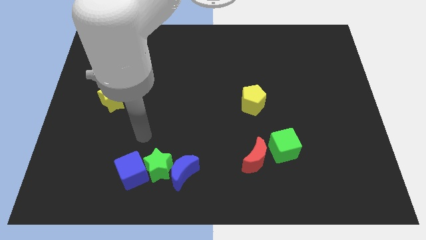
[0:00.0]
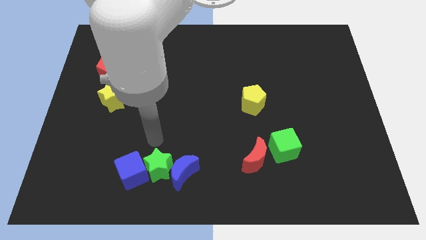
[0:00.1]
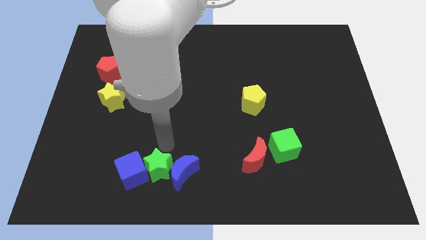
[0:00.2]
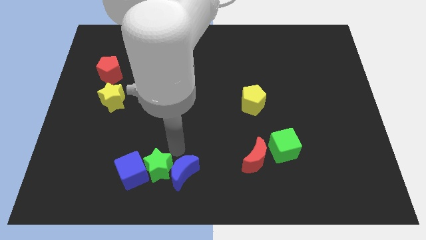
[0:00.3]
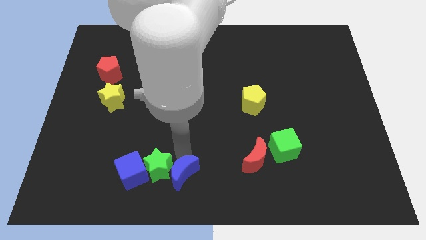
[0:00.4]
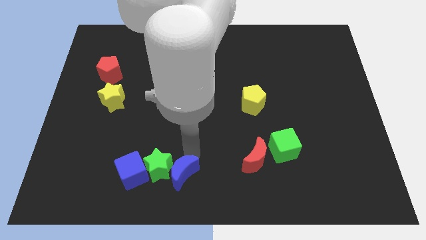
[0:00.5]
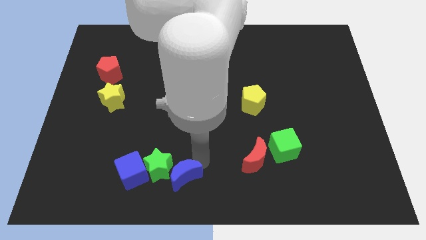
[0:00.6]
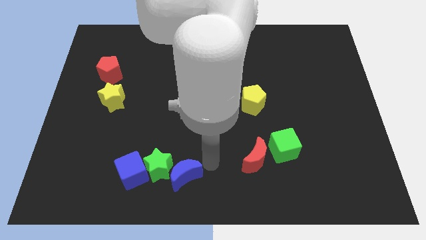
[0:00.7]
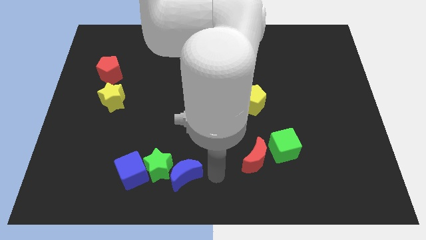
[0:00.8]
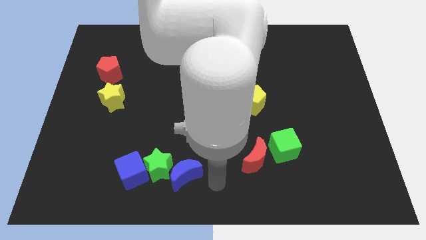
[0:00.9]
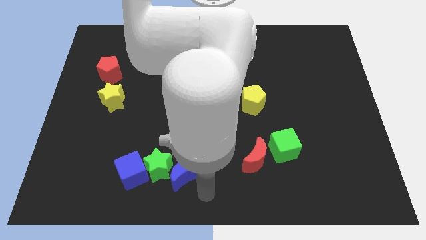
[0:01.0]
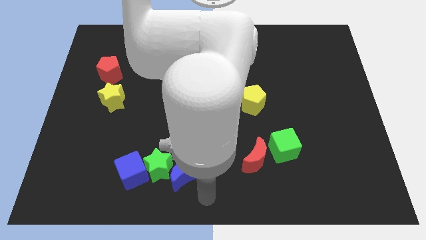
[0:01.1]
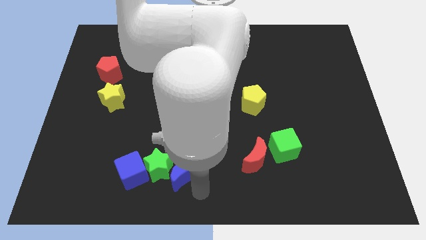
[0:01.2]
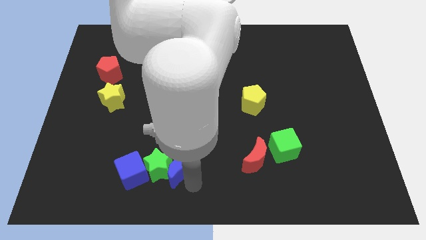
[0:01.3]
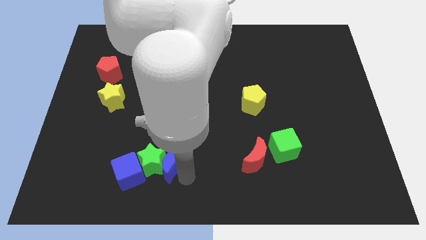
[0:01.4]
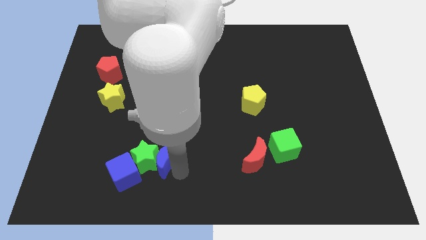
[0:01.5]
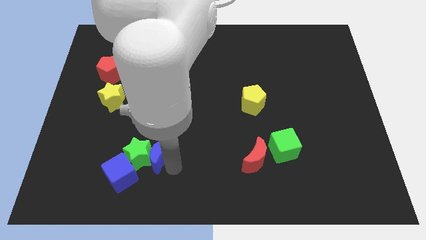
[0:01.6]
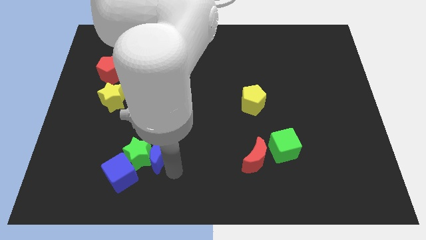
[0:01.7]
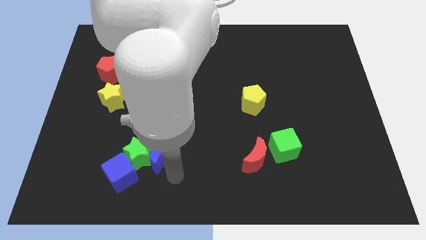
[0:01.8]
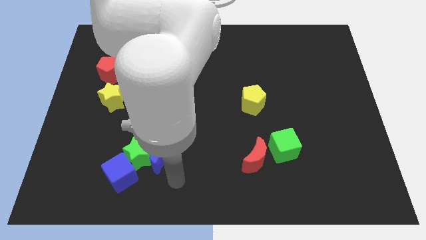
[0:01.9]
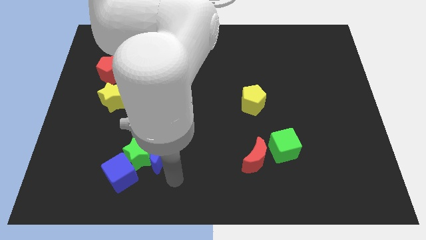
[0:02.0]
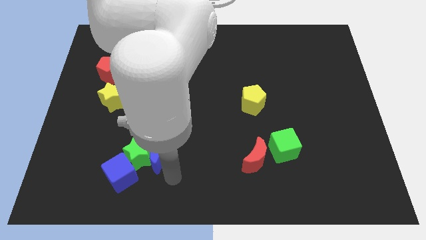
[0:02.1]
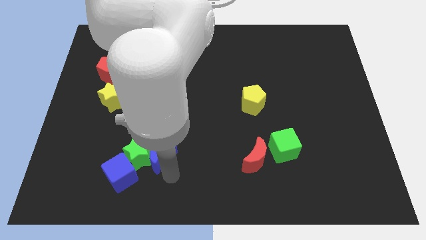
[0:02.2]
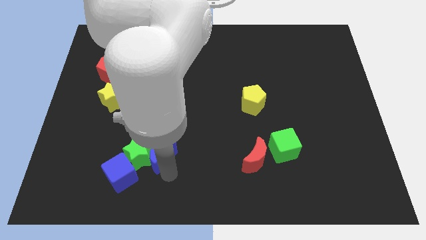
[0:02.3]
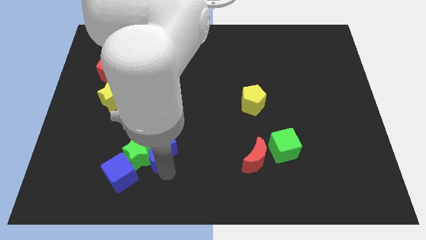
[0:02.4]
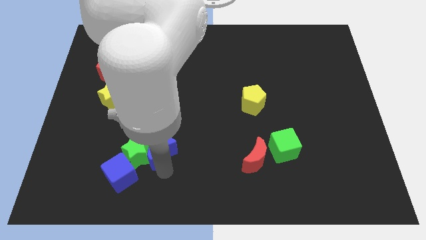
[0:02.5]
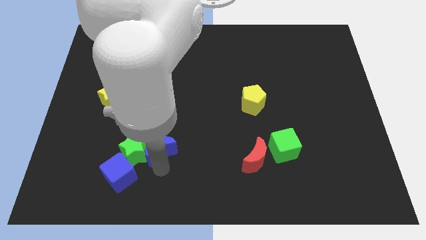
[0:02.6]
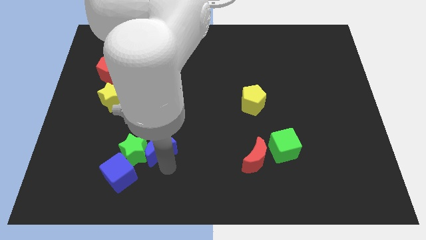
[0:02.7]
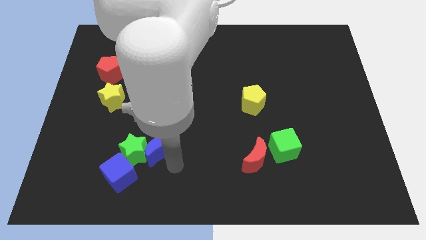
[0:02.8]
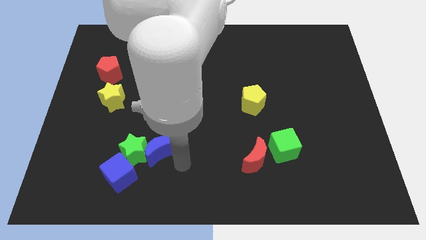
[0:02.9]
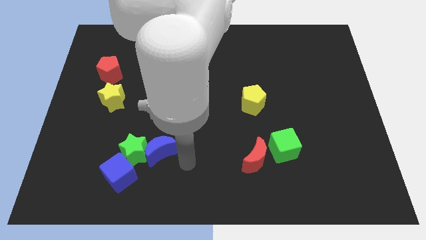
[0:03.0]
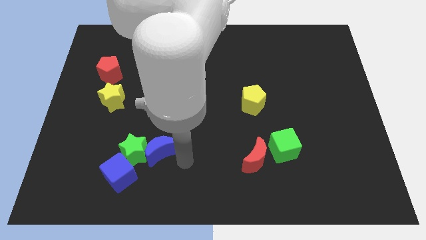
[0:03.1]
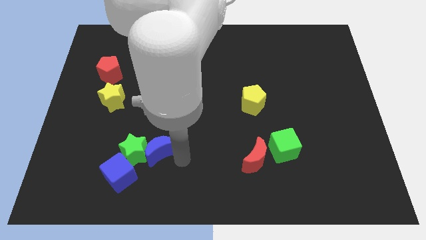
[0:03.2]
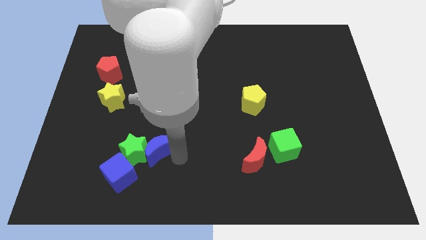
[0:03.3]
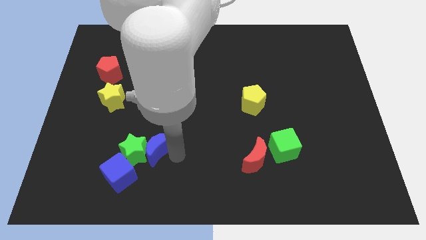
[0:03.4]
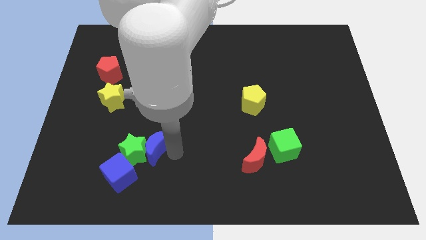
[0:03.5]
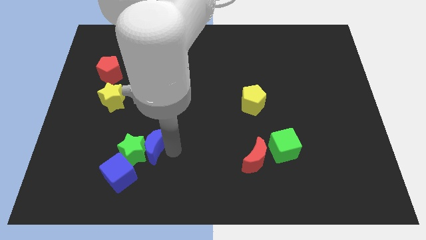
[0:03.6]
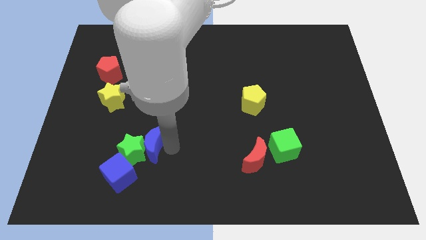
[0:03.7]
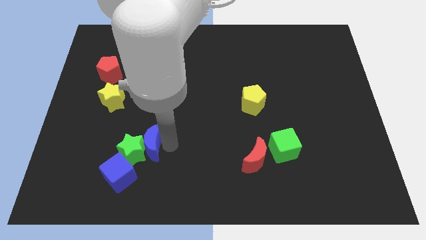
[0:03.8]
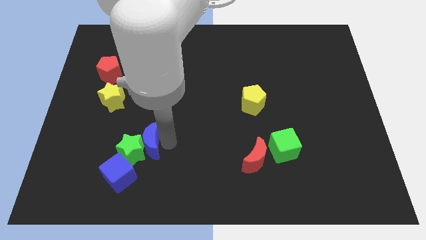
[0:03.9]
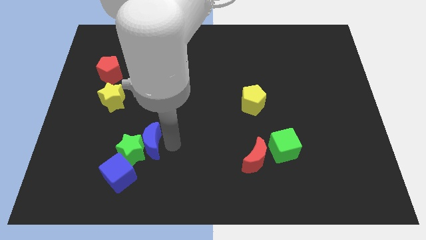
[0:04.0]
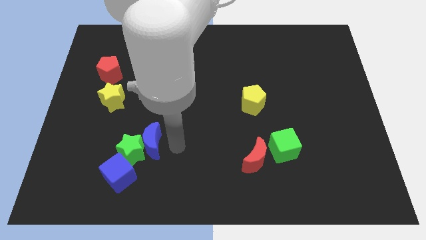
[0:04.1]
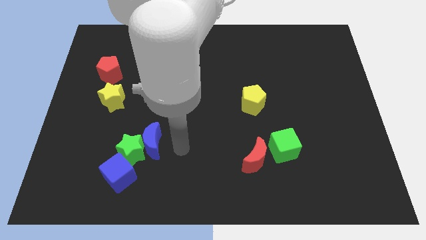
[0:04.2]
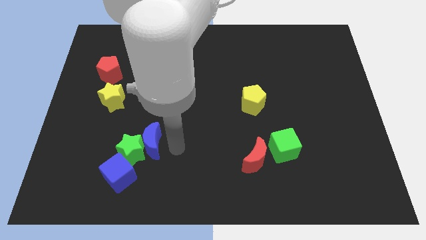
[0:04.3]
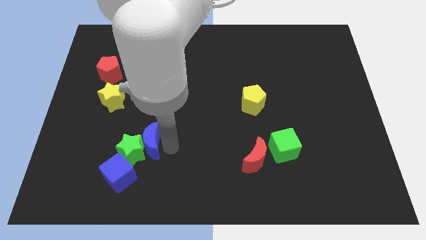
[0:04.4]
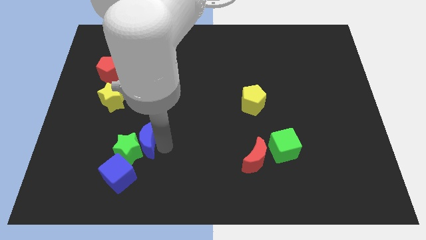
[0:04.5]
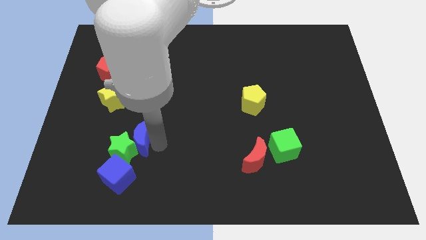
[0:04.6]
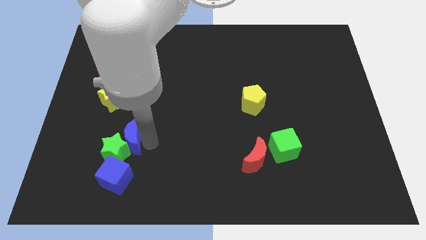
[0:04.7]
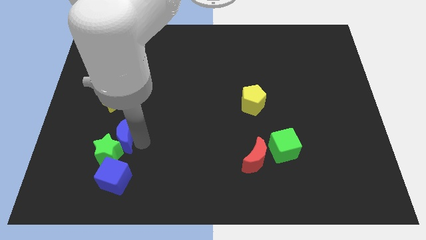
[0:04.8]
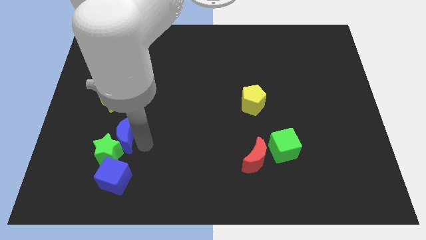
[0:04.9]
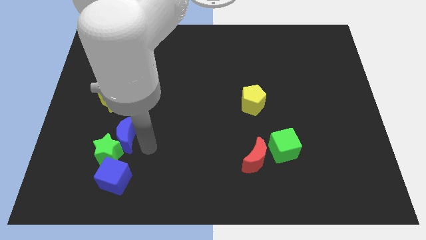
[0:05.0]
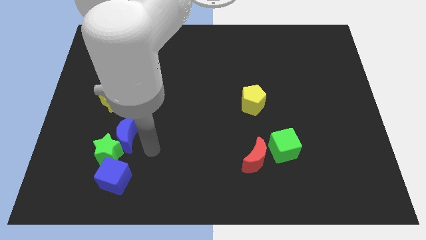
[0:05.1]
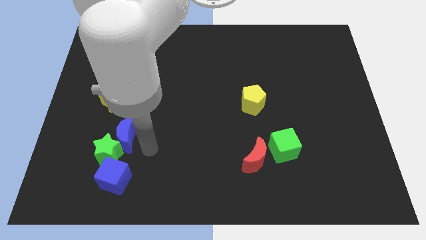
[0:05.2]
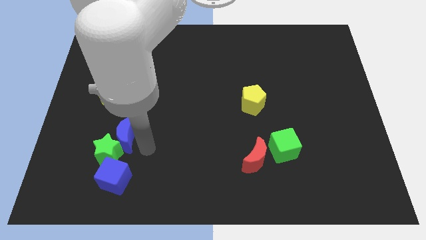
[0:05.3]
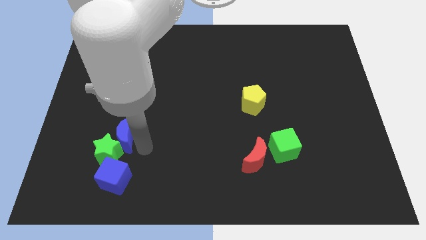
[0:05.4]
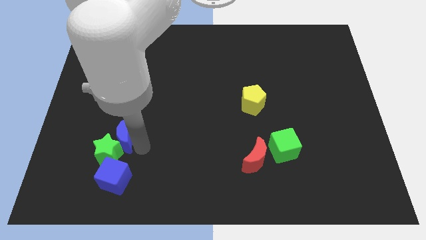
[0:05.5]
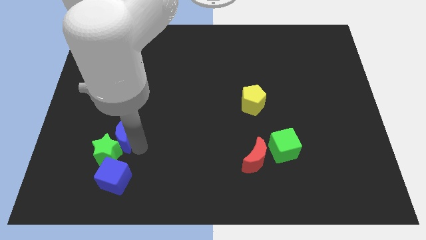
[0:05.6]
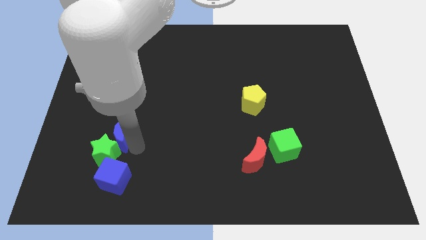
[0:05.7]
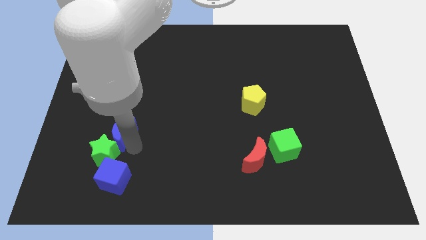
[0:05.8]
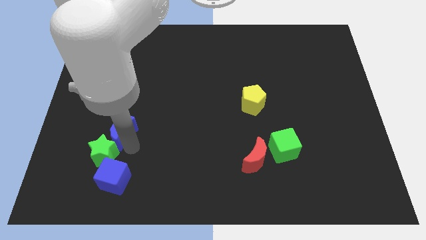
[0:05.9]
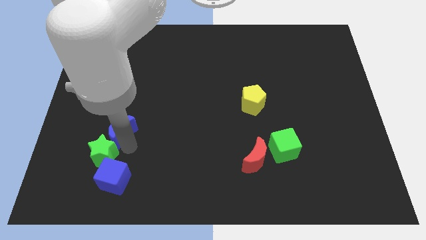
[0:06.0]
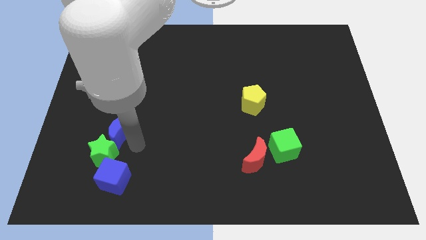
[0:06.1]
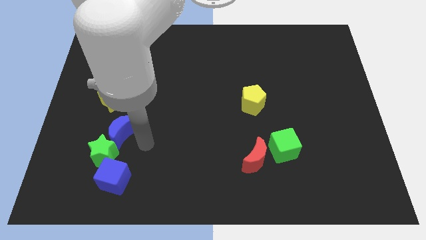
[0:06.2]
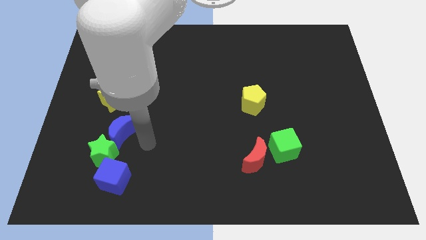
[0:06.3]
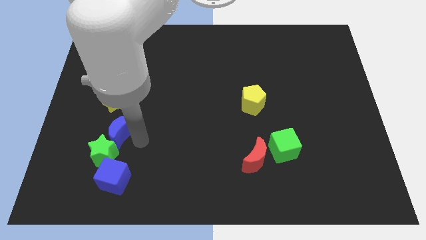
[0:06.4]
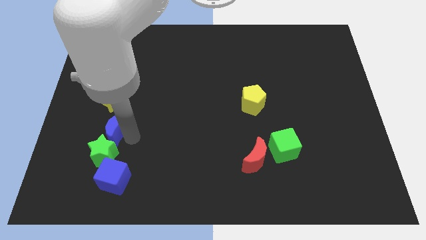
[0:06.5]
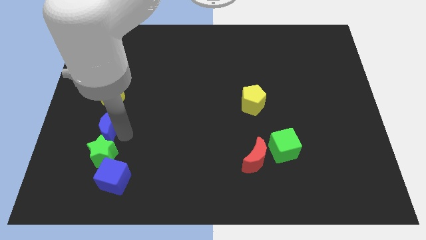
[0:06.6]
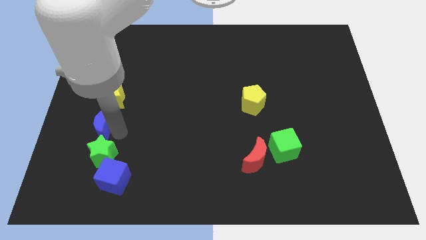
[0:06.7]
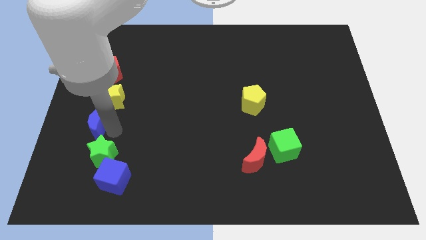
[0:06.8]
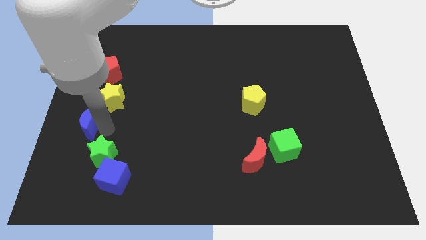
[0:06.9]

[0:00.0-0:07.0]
push the blue moon to the left side of the board
